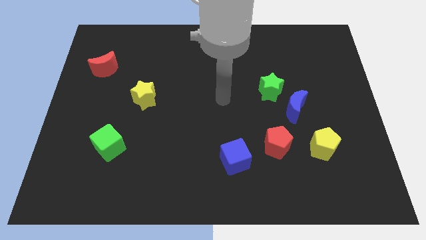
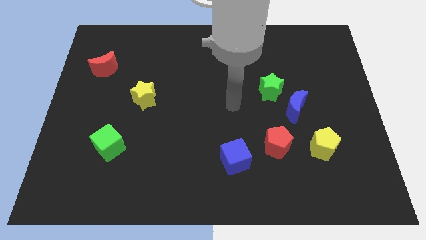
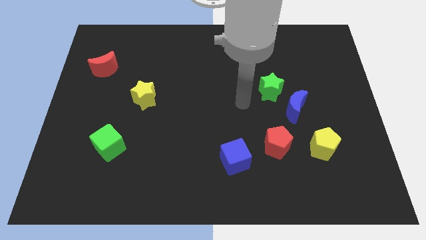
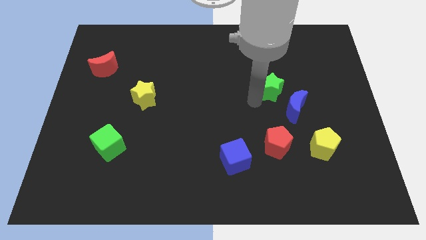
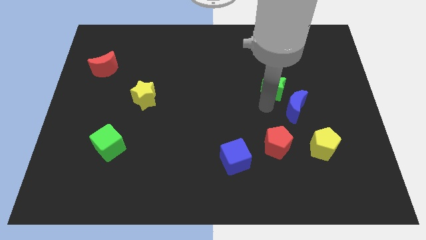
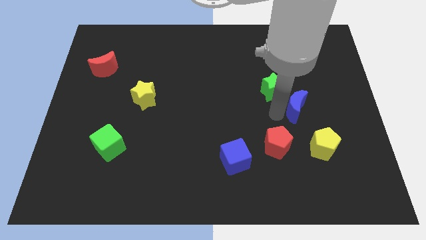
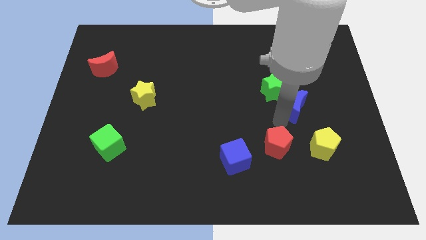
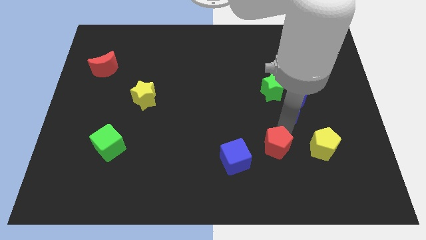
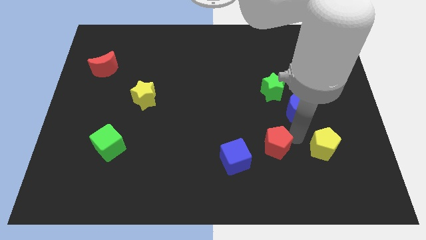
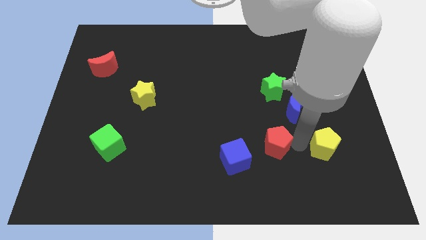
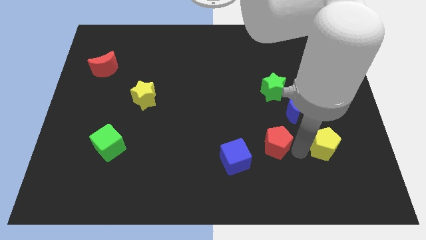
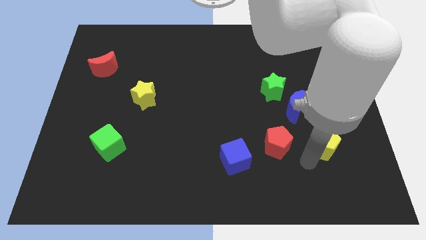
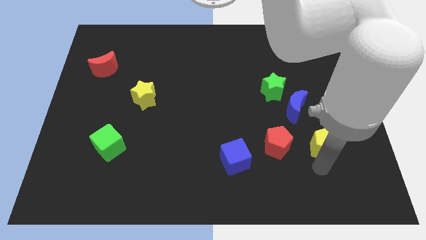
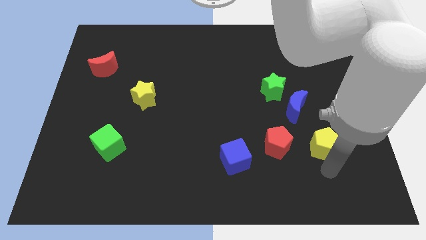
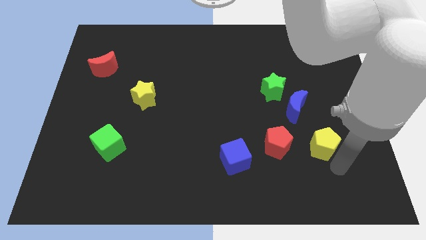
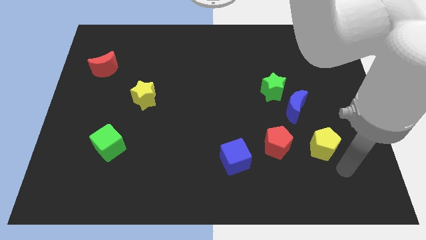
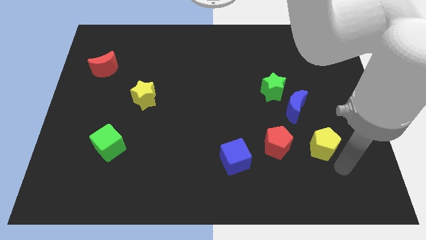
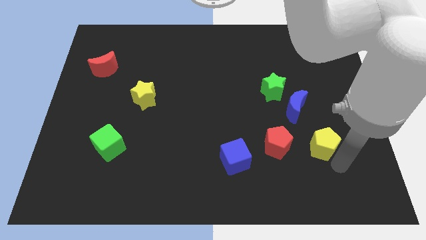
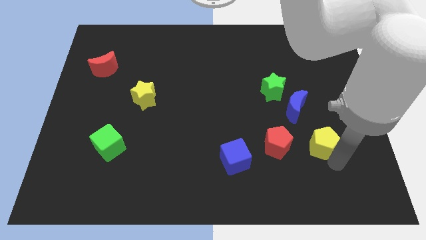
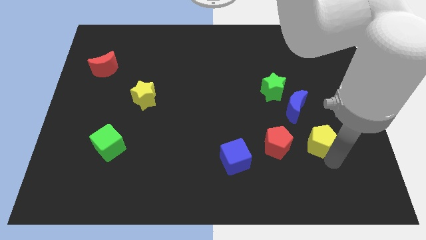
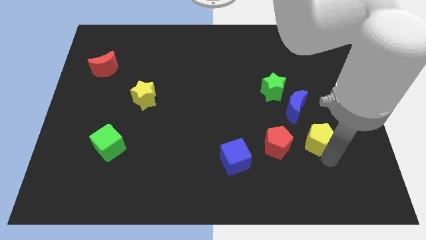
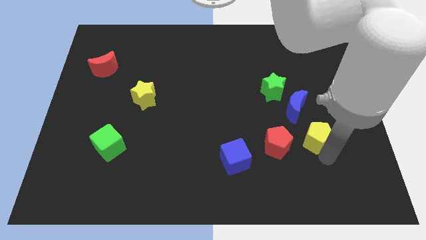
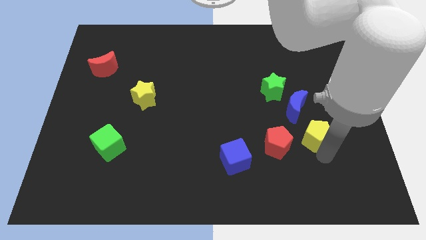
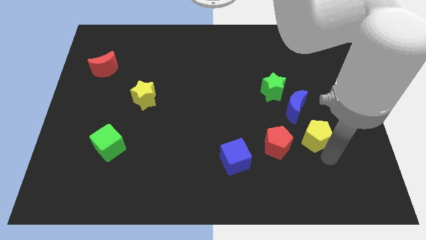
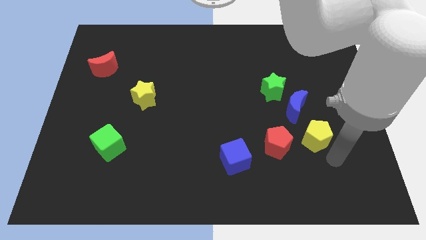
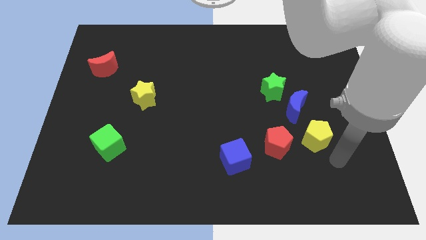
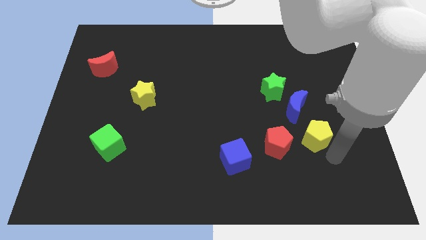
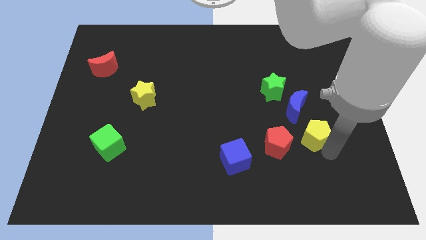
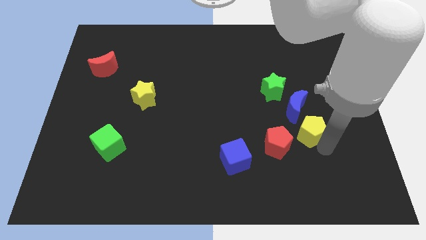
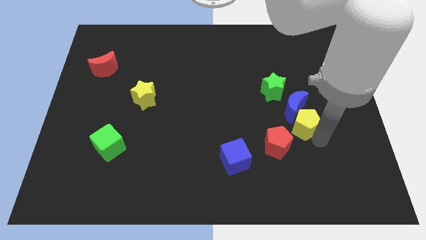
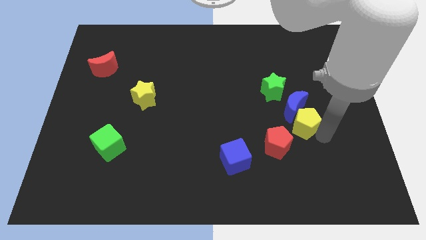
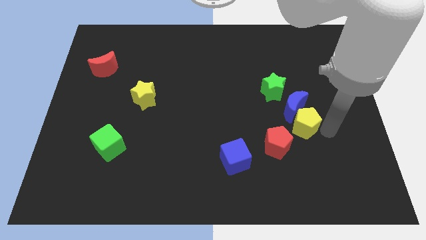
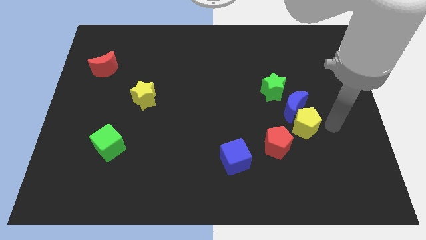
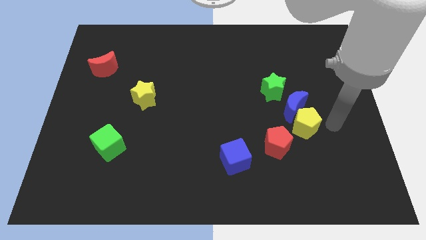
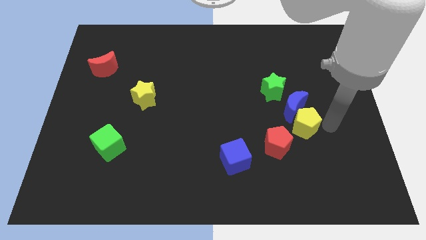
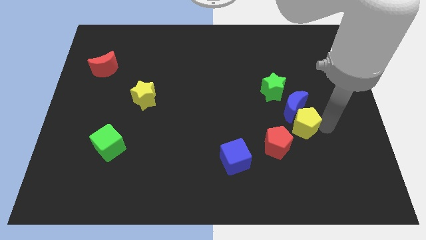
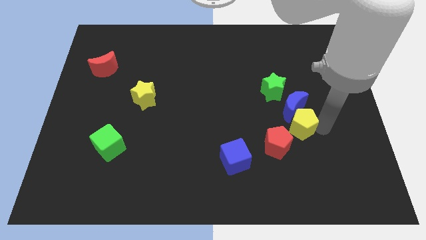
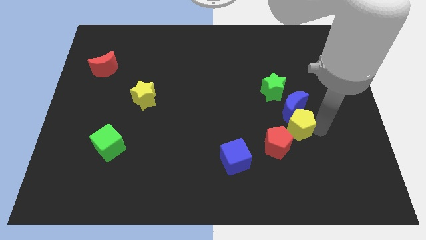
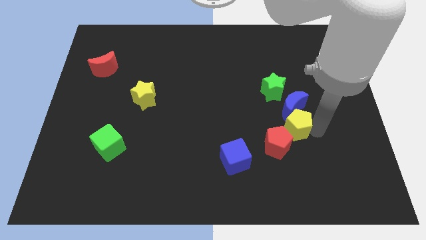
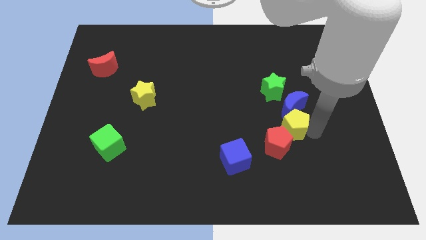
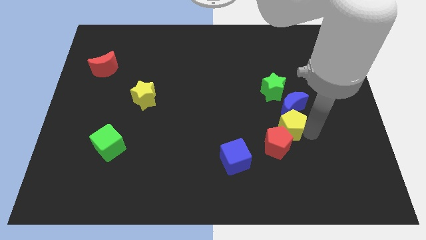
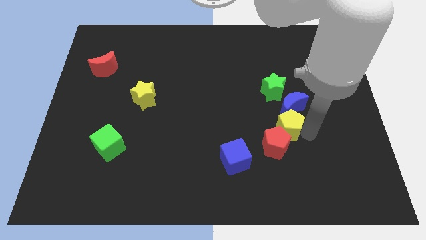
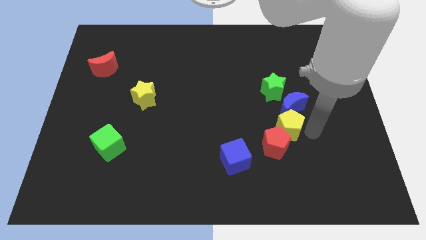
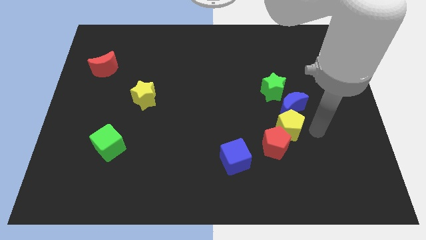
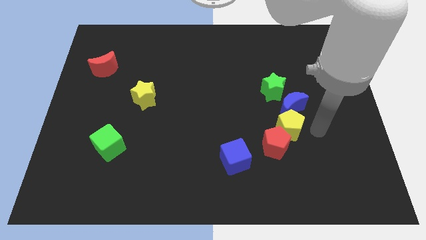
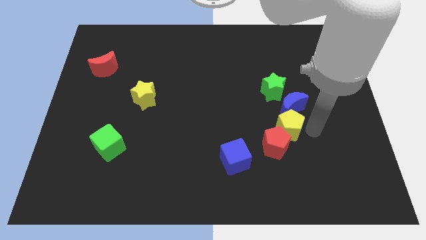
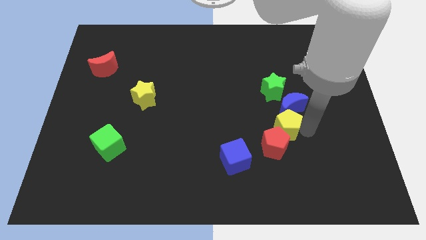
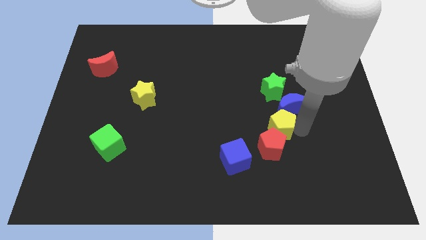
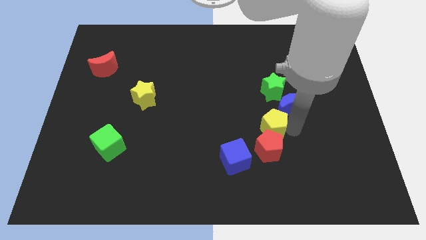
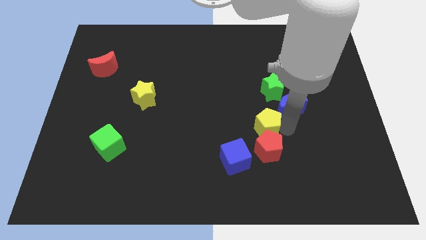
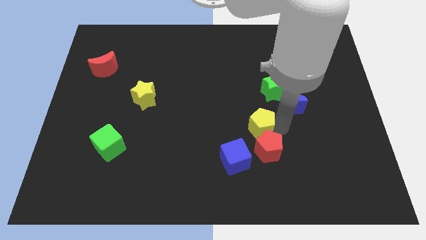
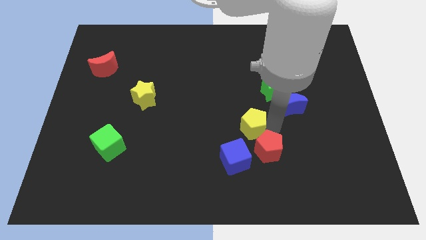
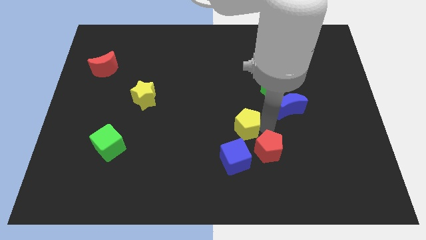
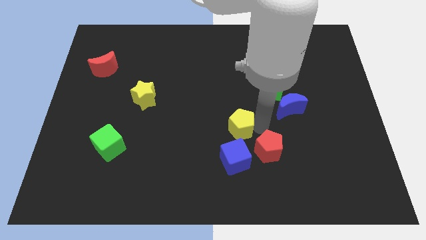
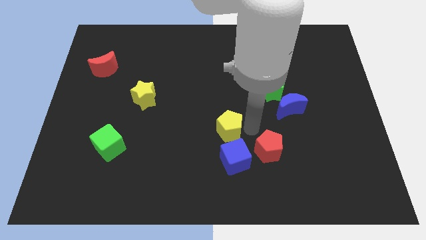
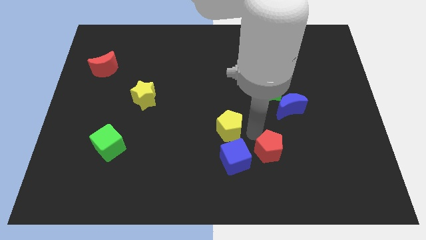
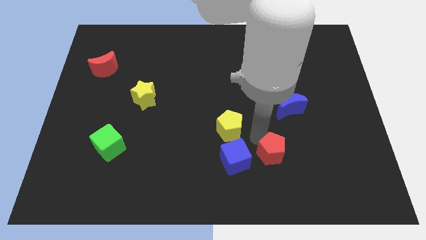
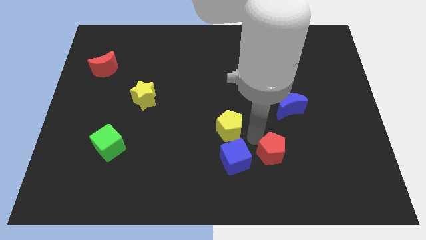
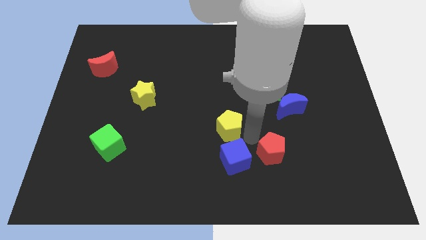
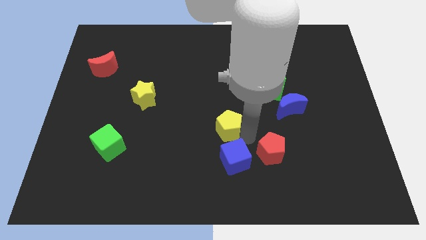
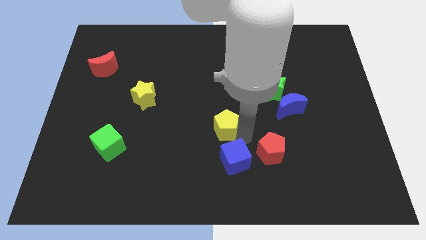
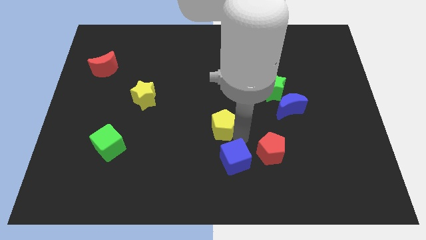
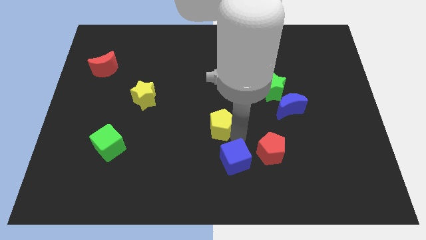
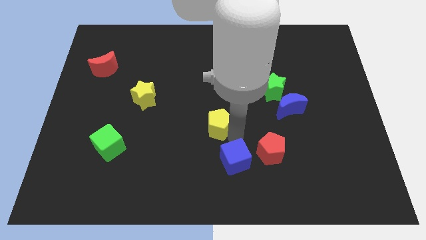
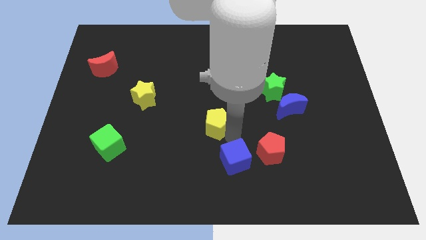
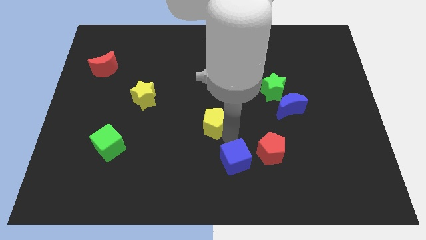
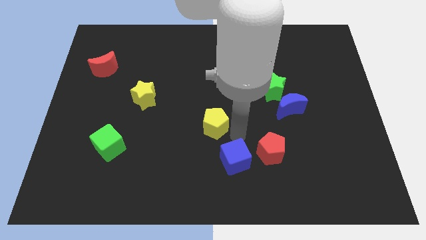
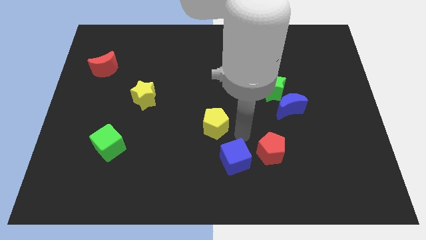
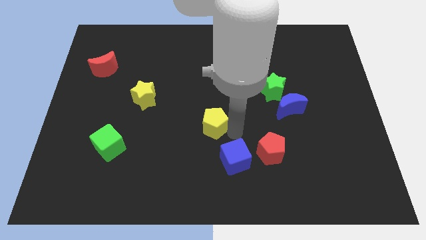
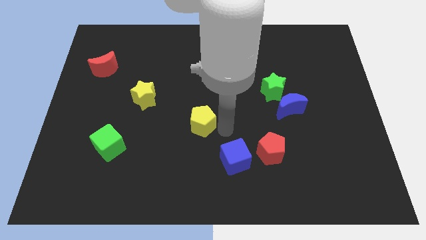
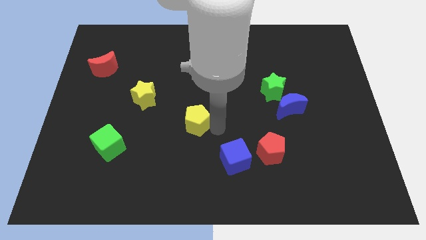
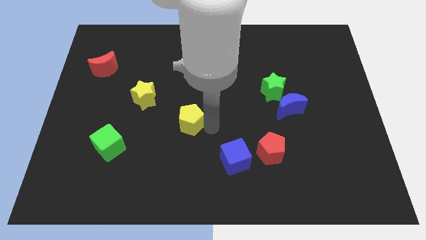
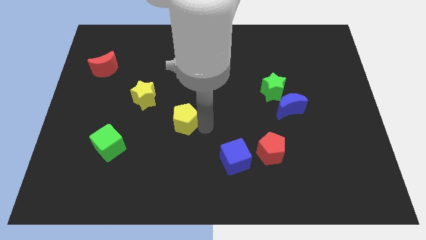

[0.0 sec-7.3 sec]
push the yellow pentagon to the bottom right side of the yellow star

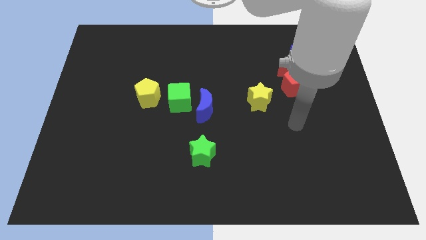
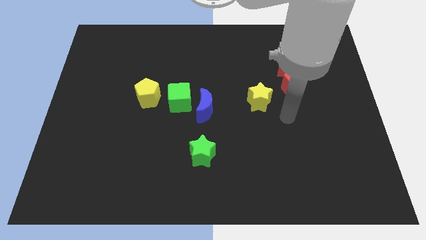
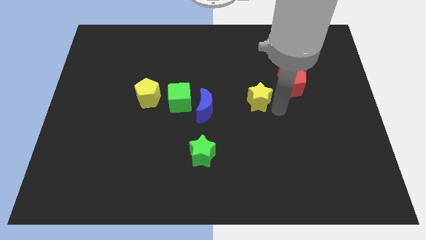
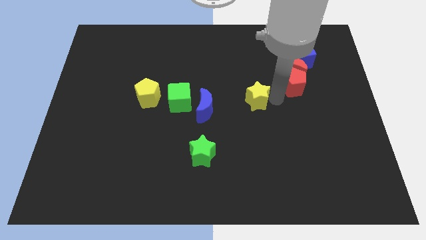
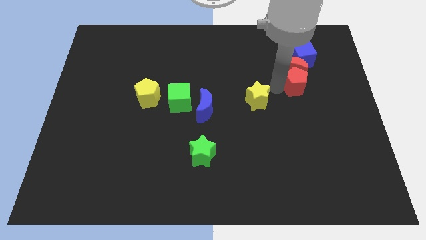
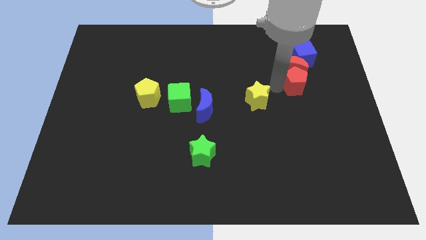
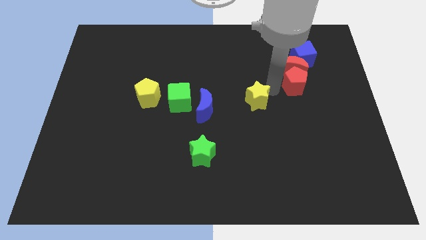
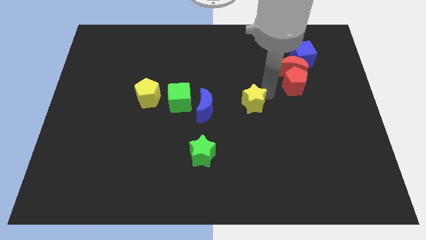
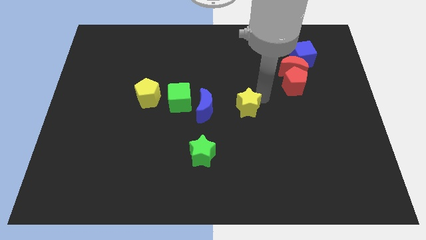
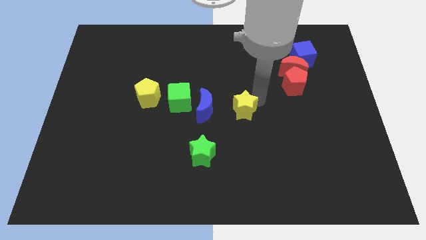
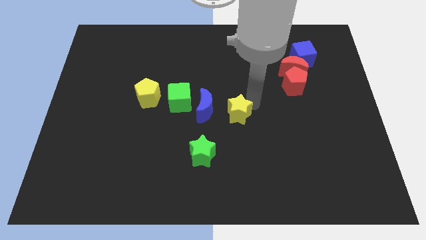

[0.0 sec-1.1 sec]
put the yellow star to the bottom right side of the blue moon
